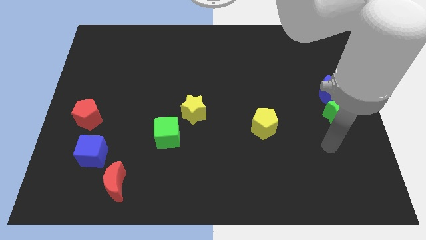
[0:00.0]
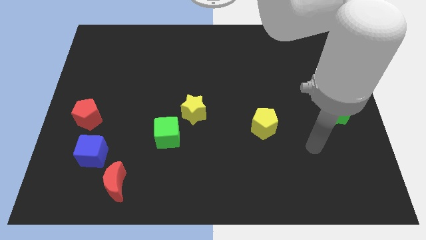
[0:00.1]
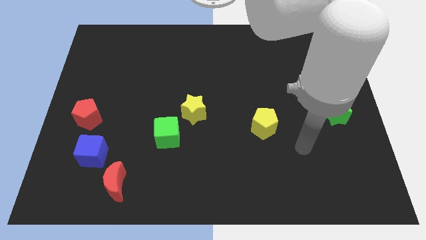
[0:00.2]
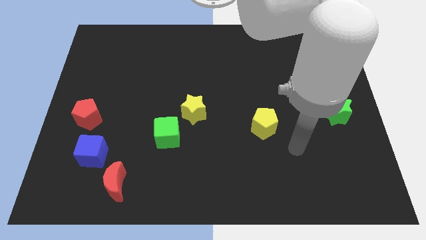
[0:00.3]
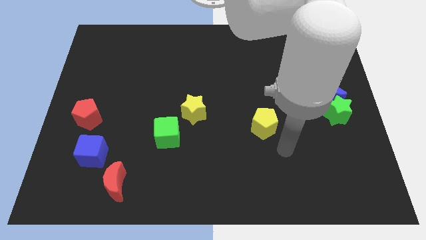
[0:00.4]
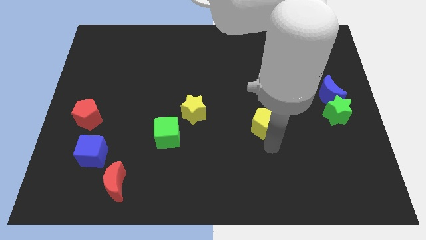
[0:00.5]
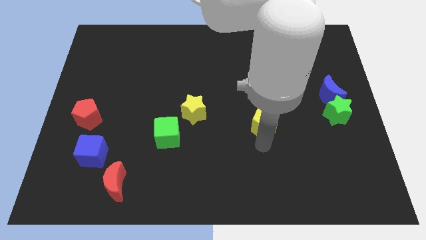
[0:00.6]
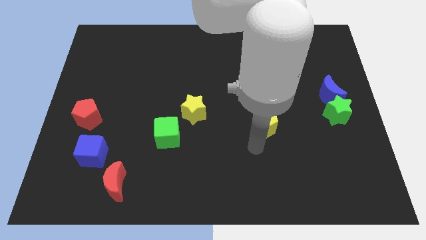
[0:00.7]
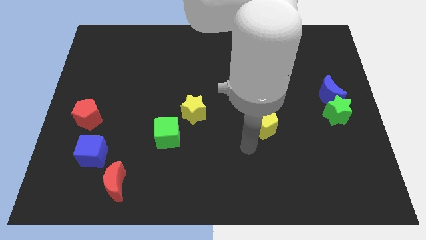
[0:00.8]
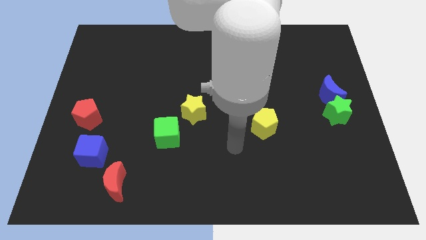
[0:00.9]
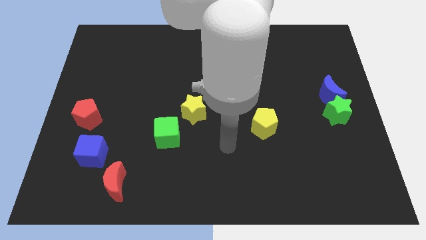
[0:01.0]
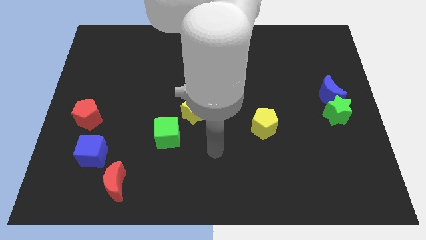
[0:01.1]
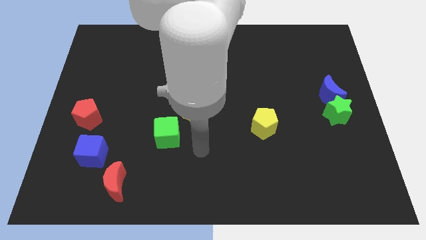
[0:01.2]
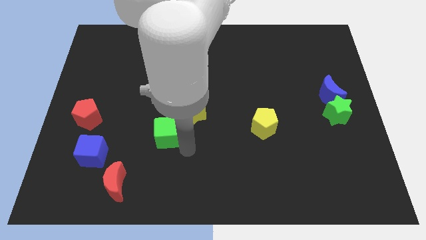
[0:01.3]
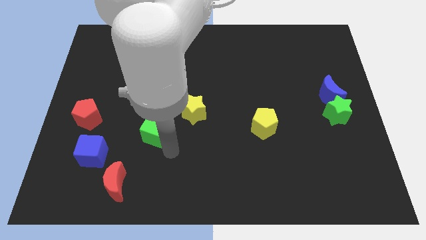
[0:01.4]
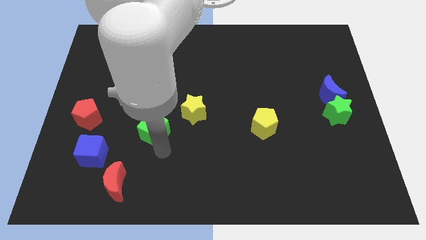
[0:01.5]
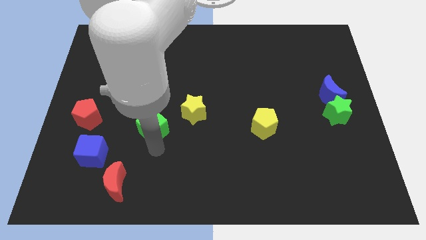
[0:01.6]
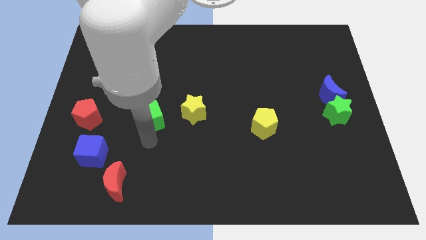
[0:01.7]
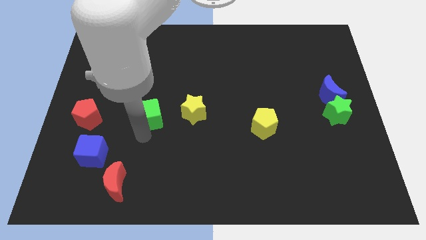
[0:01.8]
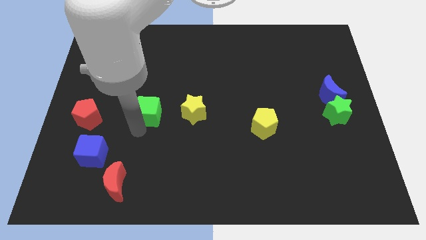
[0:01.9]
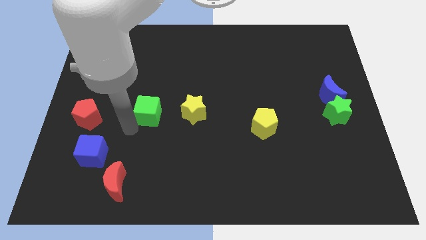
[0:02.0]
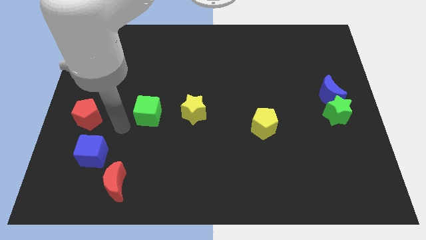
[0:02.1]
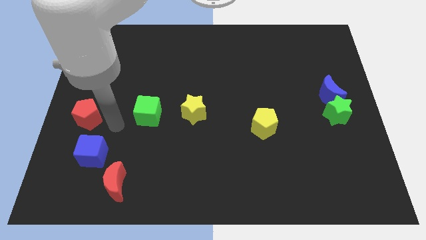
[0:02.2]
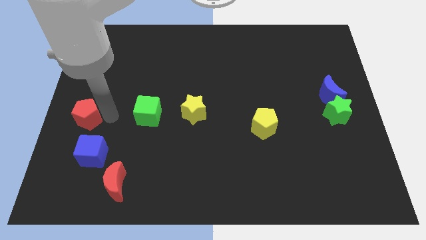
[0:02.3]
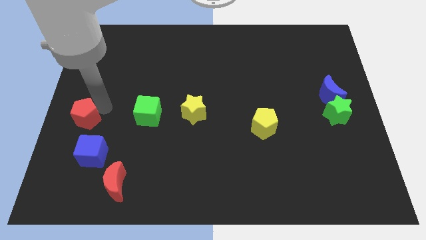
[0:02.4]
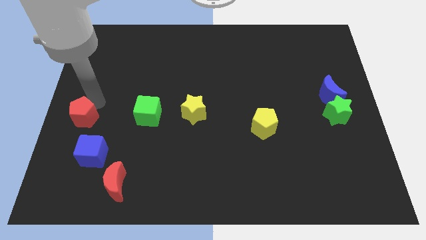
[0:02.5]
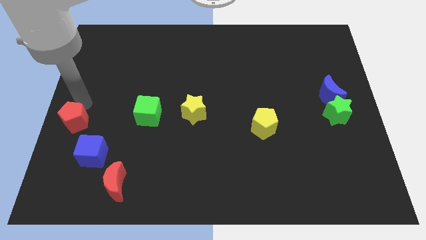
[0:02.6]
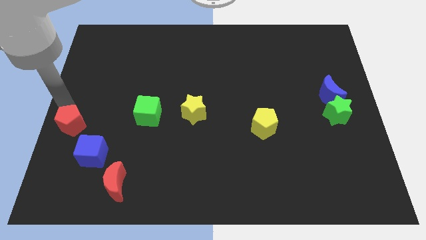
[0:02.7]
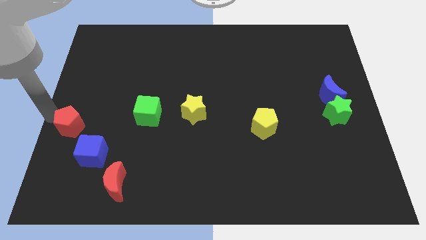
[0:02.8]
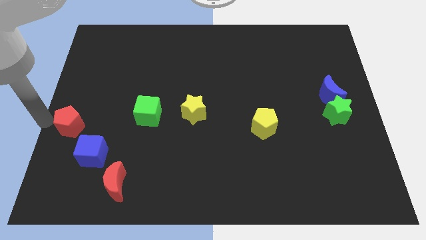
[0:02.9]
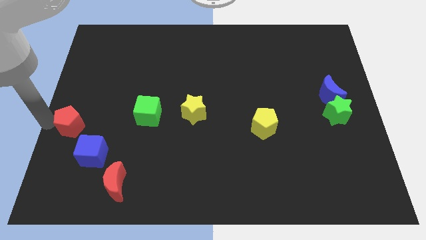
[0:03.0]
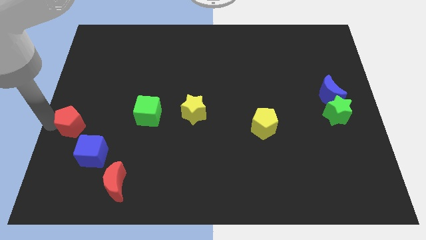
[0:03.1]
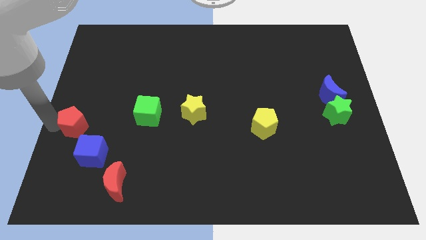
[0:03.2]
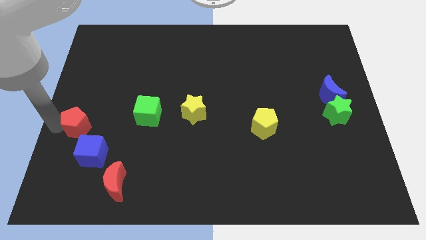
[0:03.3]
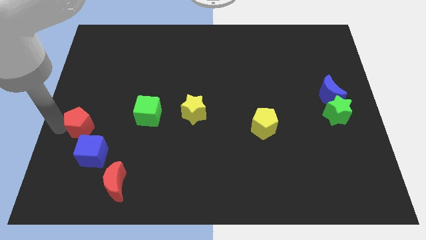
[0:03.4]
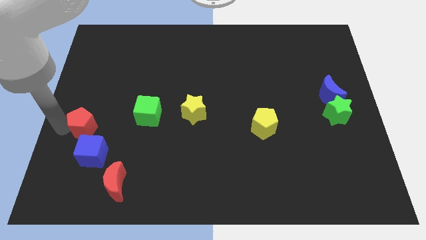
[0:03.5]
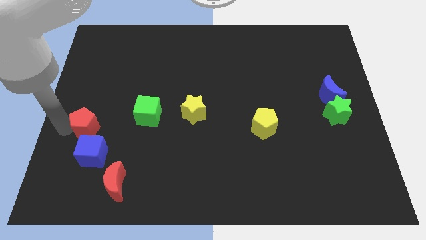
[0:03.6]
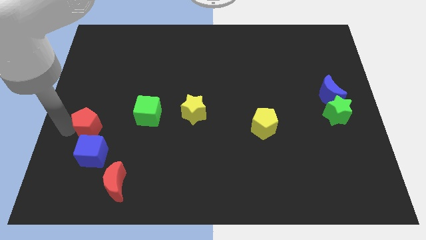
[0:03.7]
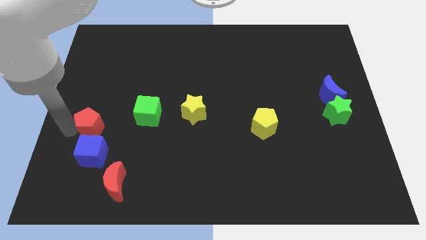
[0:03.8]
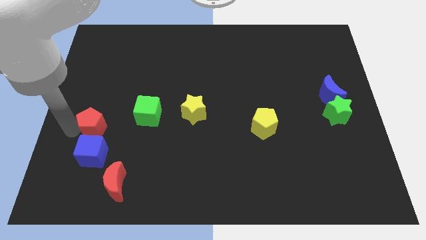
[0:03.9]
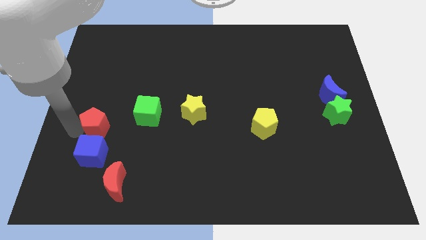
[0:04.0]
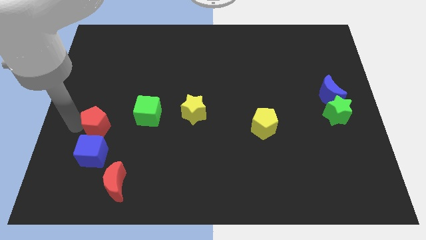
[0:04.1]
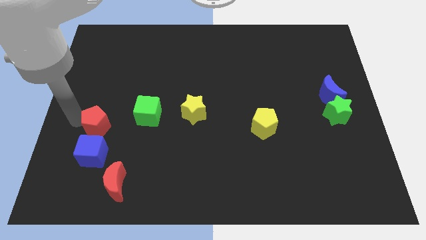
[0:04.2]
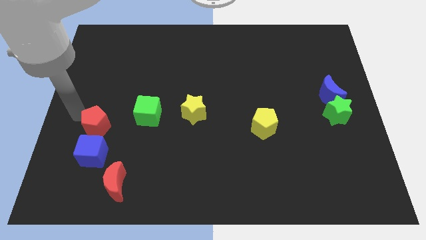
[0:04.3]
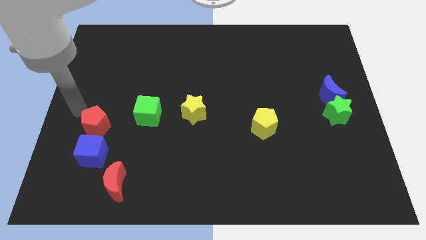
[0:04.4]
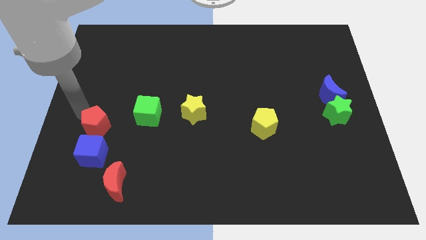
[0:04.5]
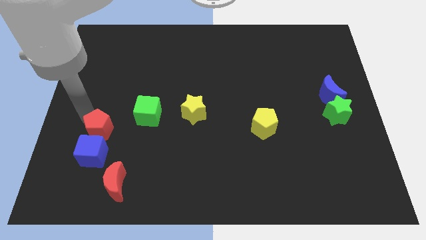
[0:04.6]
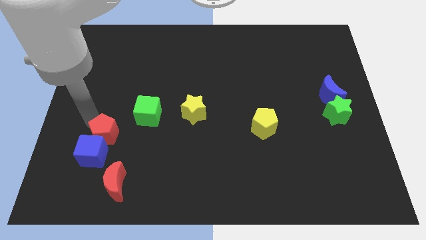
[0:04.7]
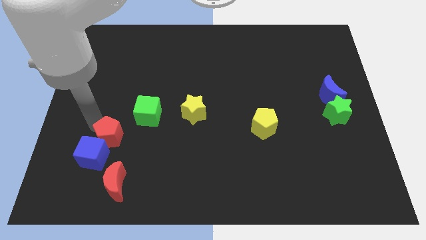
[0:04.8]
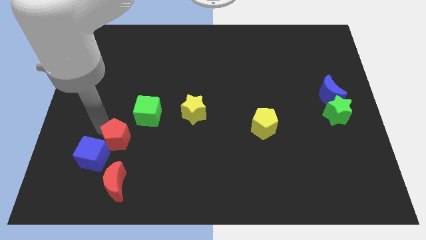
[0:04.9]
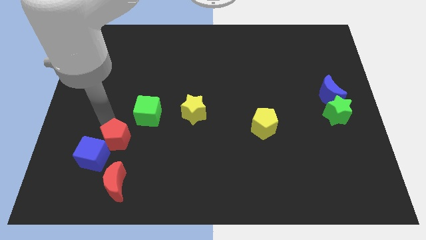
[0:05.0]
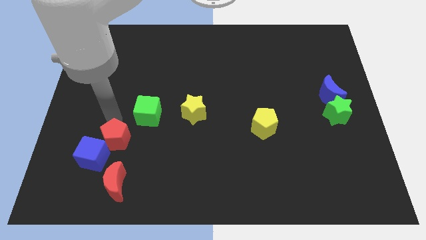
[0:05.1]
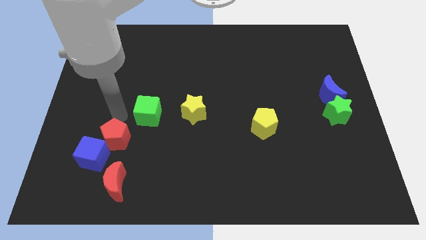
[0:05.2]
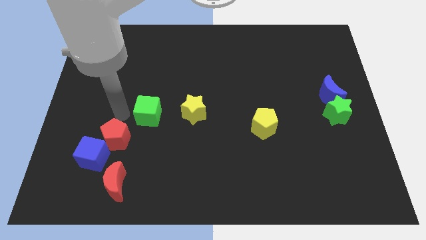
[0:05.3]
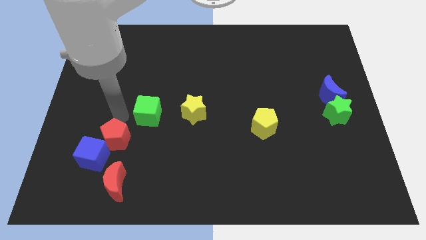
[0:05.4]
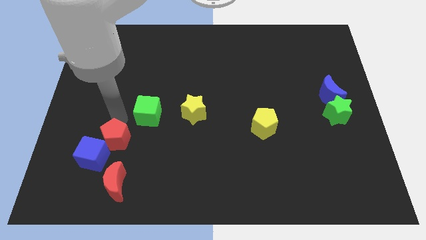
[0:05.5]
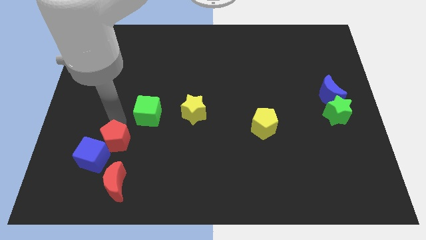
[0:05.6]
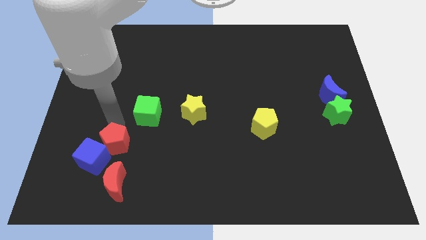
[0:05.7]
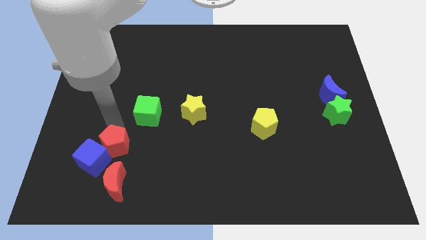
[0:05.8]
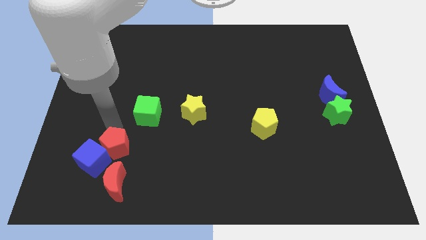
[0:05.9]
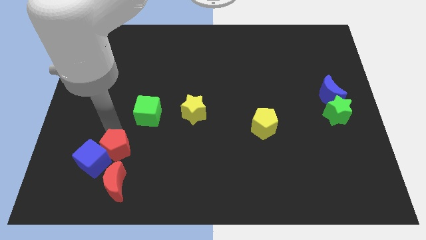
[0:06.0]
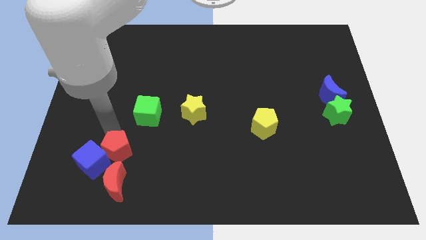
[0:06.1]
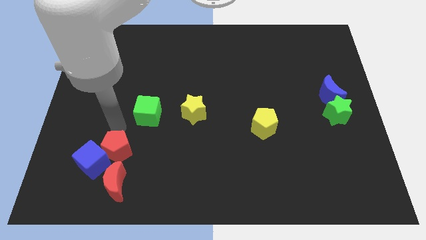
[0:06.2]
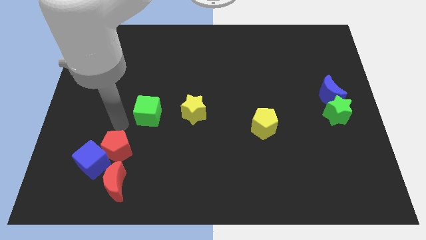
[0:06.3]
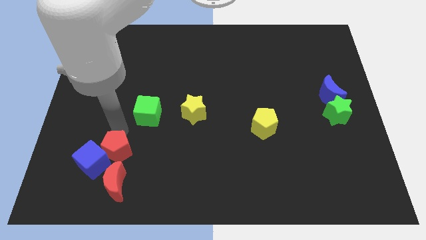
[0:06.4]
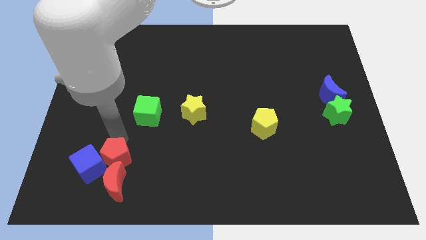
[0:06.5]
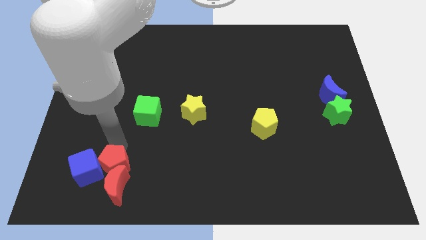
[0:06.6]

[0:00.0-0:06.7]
move the red pentagon next to the red moon

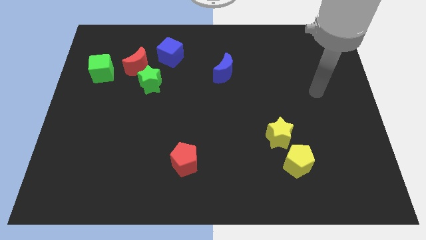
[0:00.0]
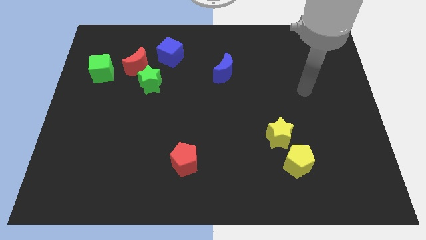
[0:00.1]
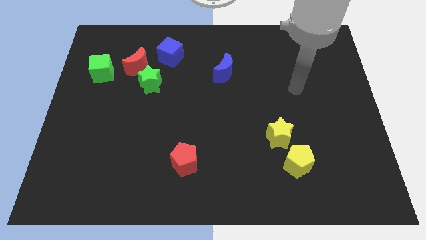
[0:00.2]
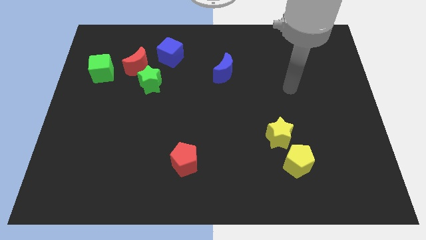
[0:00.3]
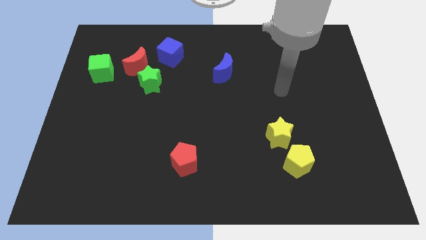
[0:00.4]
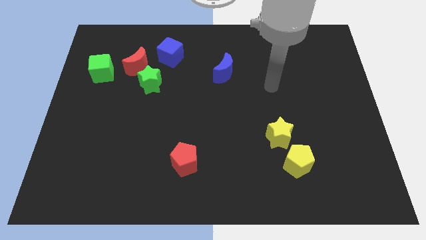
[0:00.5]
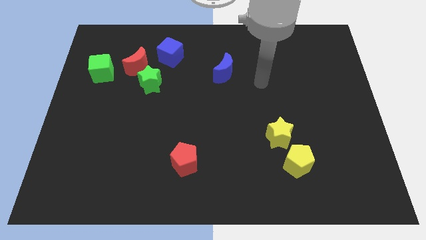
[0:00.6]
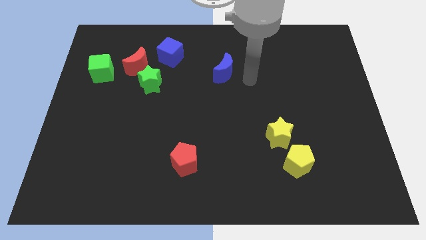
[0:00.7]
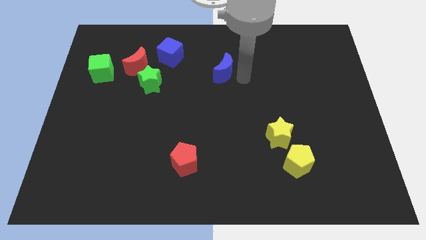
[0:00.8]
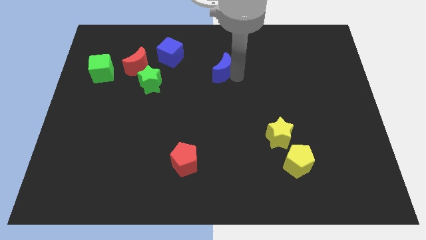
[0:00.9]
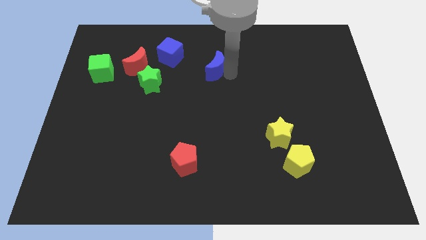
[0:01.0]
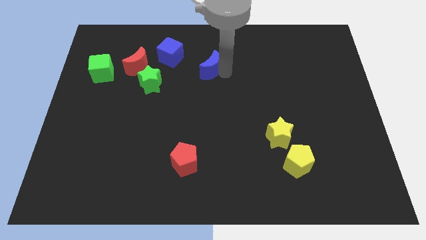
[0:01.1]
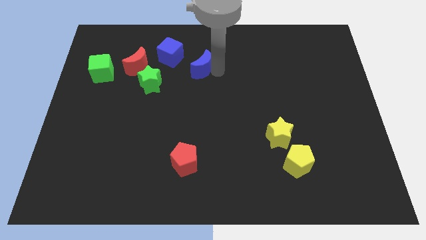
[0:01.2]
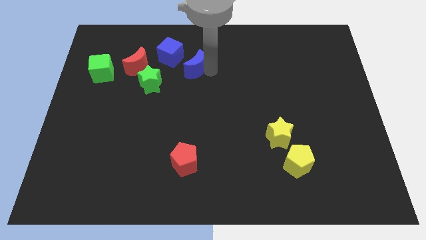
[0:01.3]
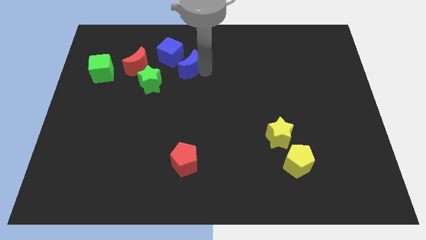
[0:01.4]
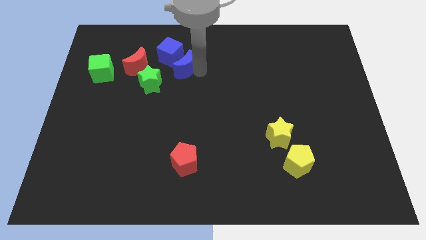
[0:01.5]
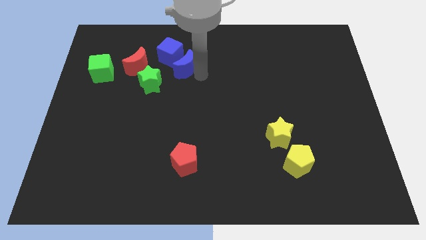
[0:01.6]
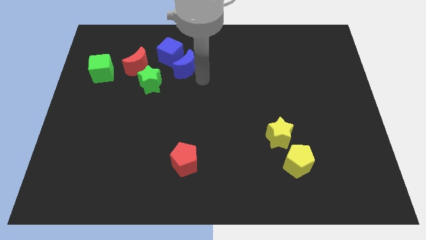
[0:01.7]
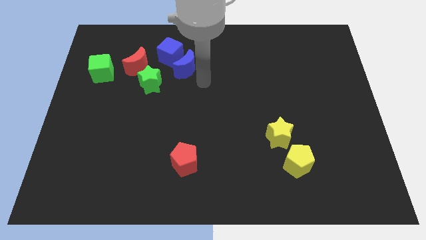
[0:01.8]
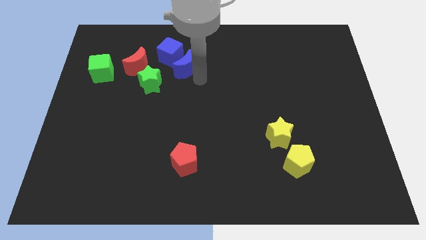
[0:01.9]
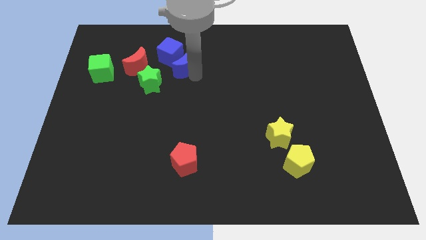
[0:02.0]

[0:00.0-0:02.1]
push the blue moon close to the blue cube
